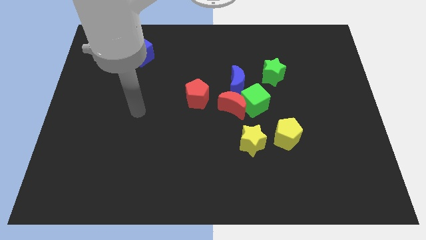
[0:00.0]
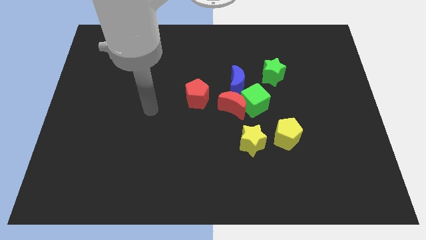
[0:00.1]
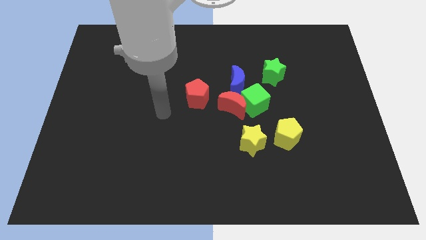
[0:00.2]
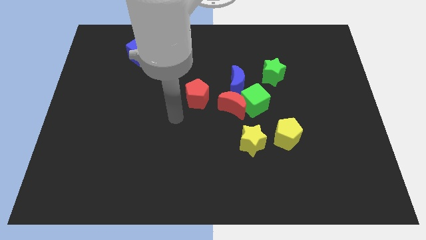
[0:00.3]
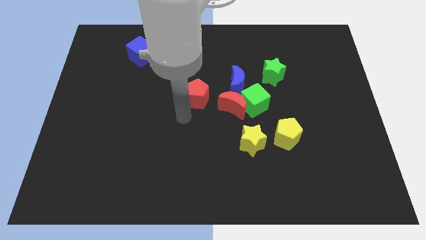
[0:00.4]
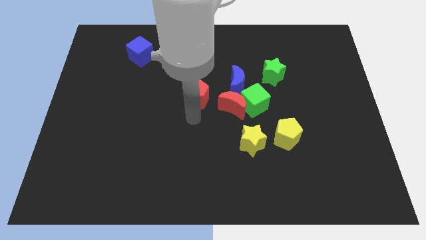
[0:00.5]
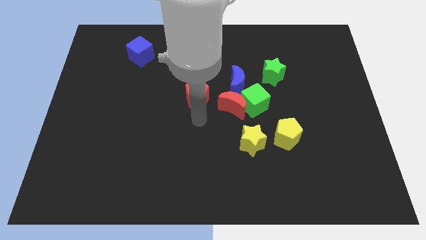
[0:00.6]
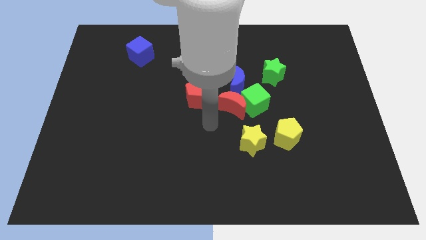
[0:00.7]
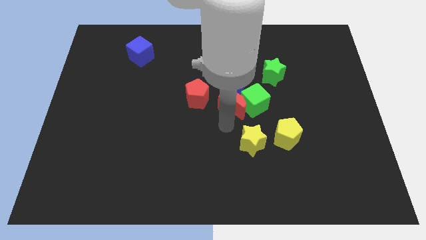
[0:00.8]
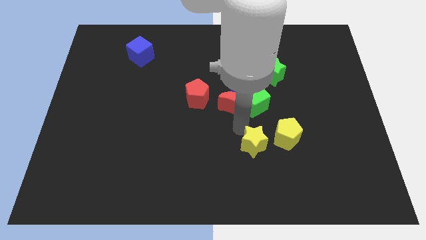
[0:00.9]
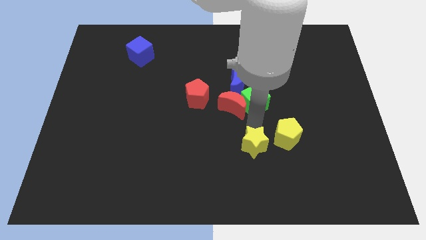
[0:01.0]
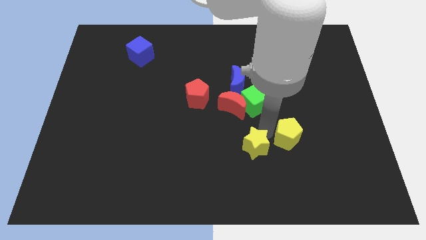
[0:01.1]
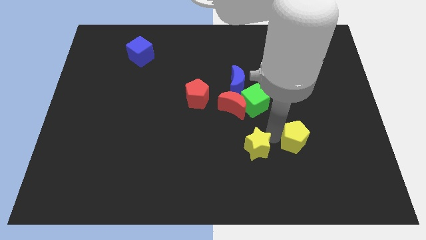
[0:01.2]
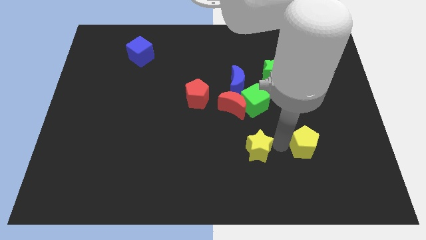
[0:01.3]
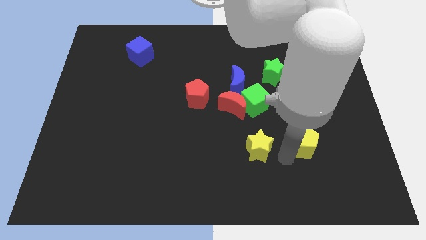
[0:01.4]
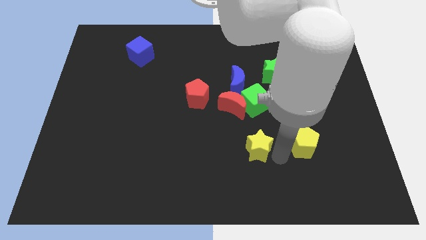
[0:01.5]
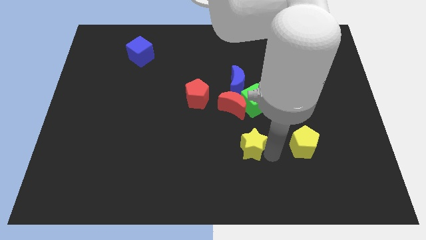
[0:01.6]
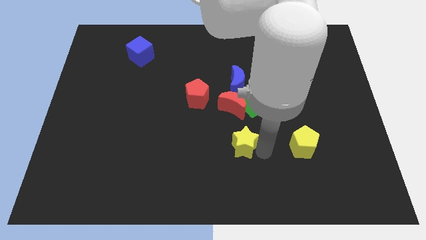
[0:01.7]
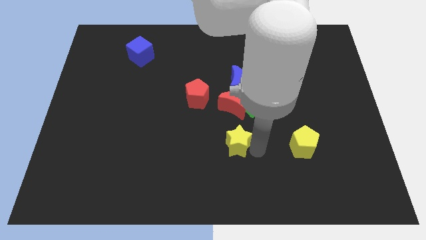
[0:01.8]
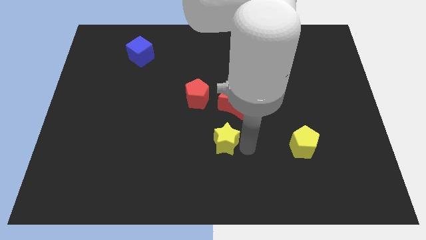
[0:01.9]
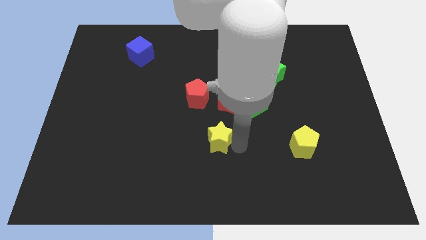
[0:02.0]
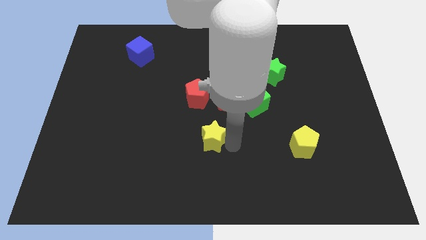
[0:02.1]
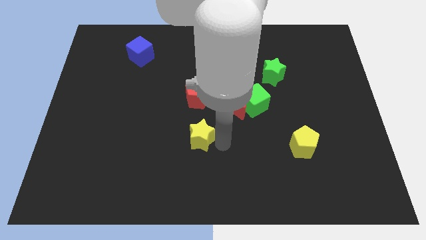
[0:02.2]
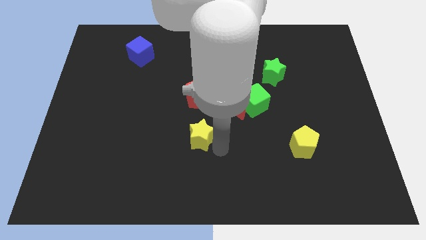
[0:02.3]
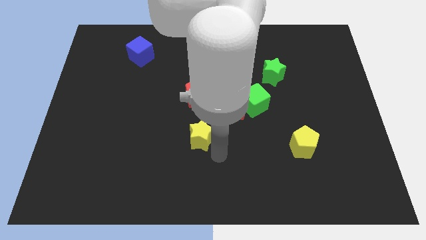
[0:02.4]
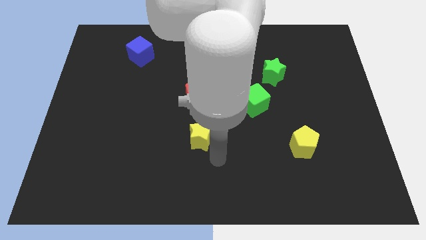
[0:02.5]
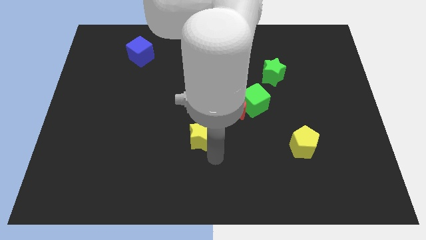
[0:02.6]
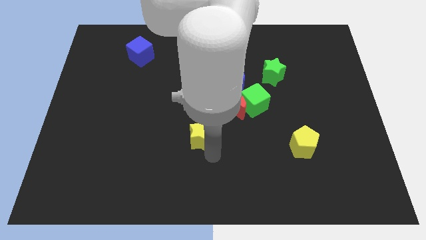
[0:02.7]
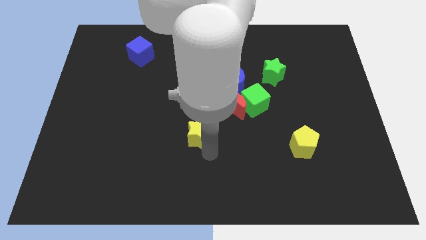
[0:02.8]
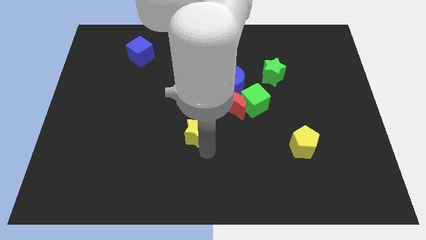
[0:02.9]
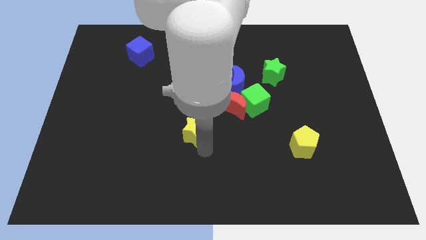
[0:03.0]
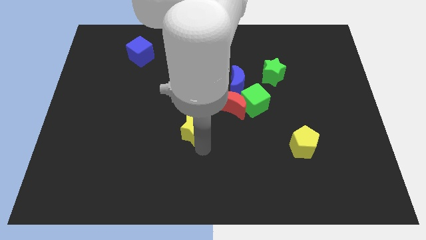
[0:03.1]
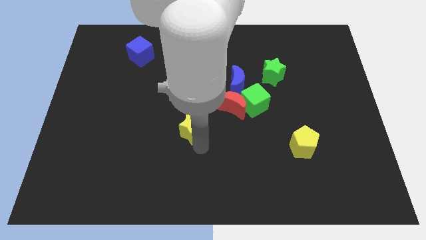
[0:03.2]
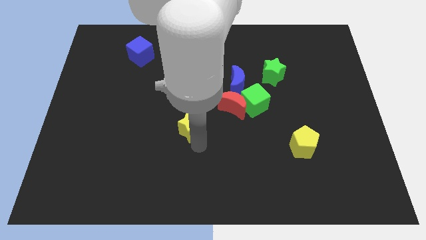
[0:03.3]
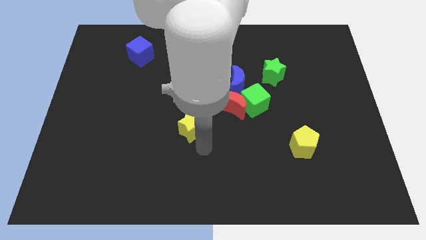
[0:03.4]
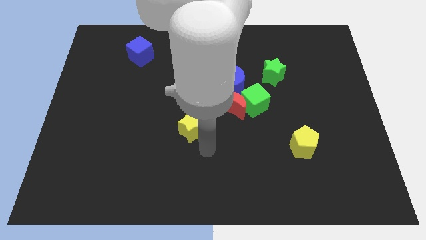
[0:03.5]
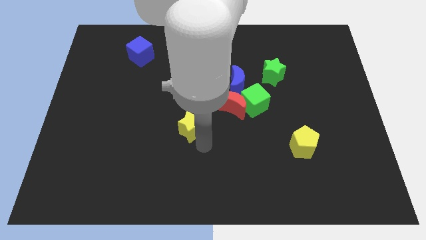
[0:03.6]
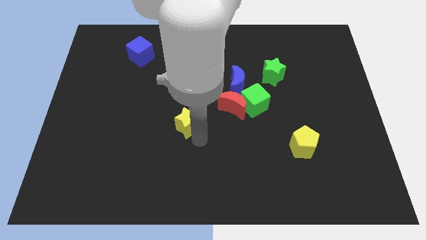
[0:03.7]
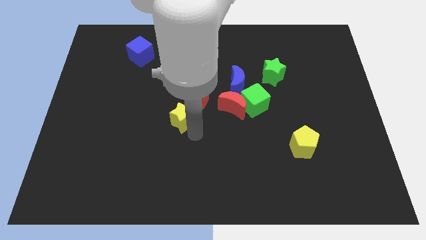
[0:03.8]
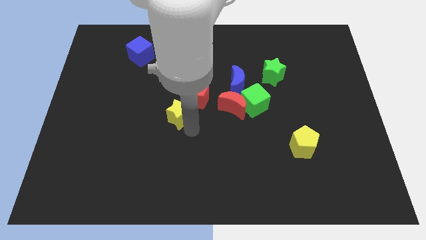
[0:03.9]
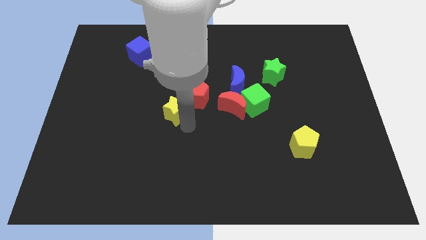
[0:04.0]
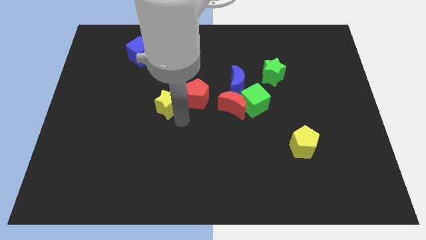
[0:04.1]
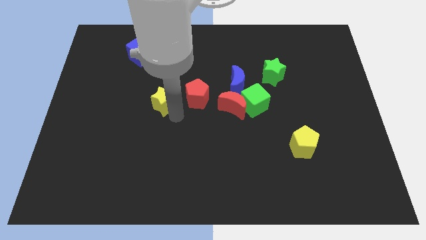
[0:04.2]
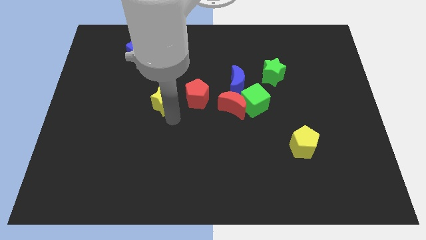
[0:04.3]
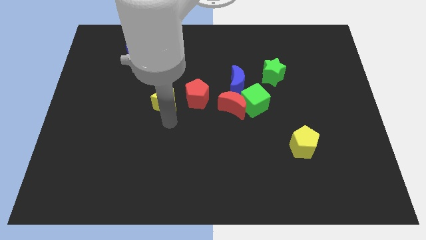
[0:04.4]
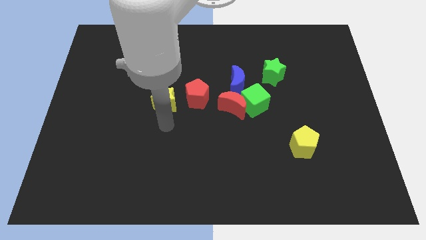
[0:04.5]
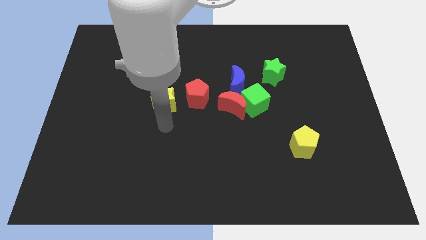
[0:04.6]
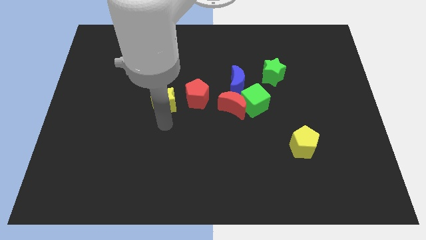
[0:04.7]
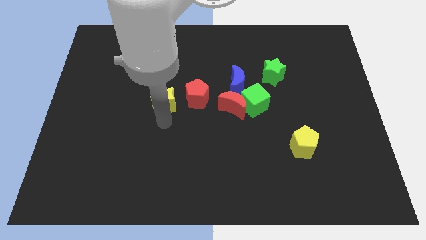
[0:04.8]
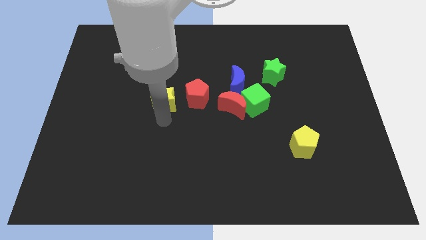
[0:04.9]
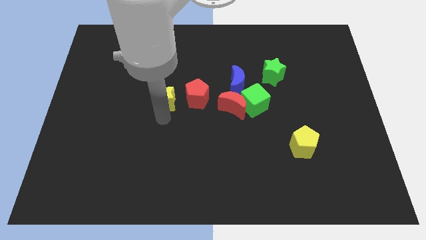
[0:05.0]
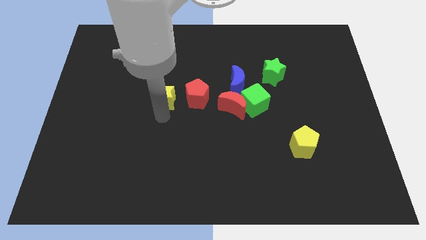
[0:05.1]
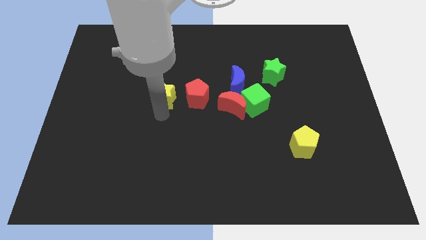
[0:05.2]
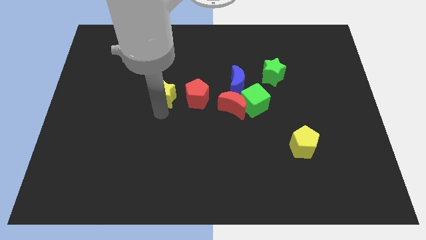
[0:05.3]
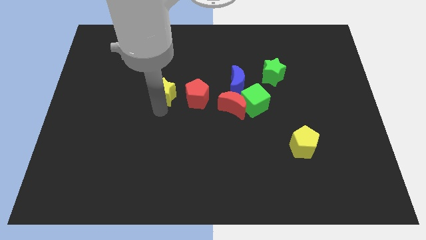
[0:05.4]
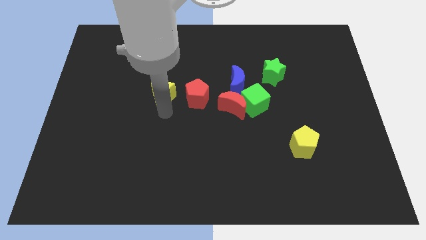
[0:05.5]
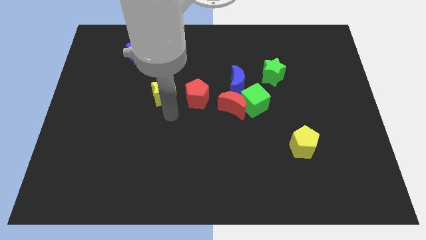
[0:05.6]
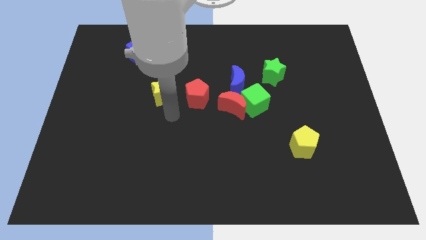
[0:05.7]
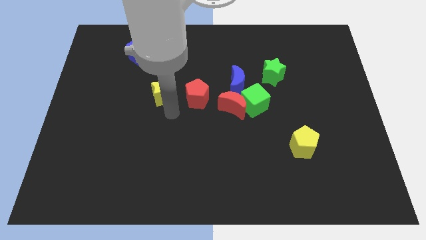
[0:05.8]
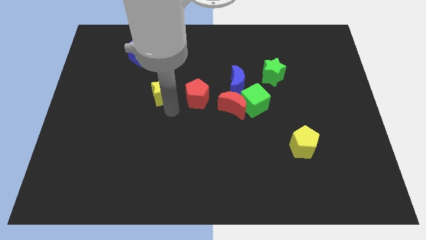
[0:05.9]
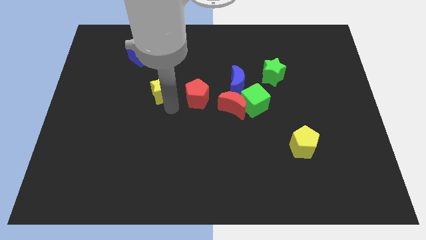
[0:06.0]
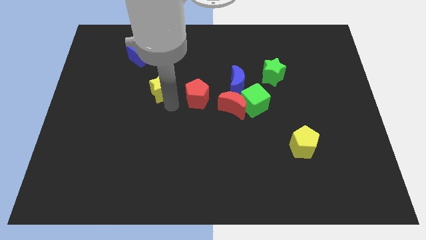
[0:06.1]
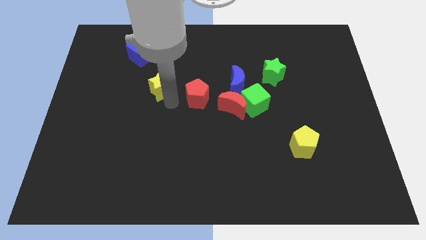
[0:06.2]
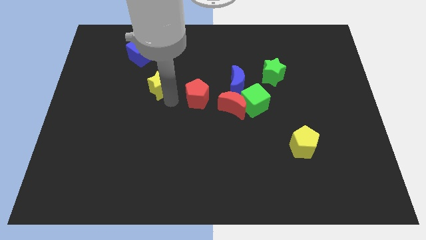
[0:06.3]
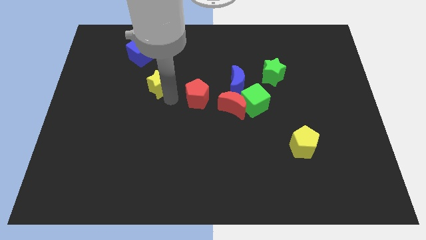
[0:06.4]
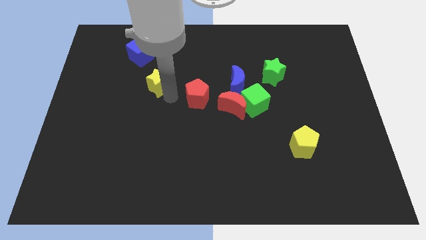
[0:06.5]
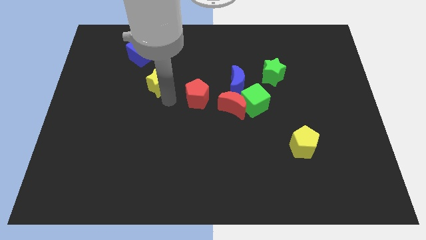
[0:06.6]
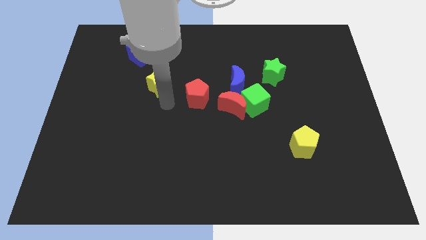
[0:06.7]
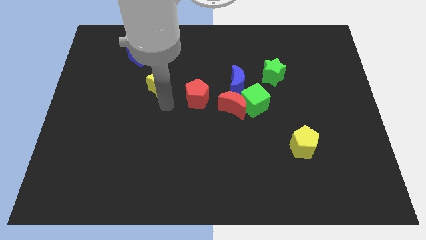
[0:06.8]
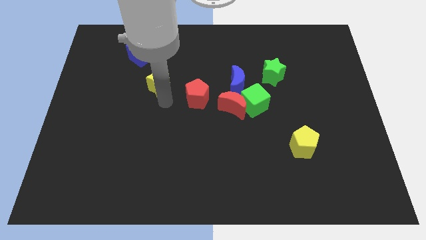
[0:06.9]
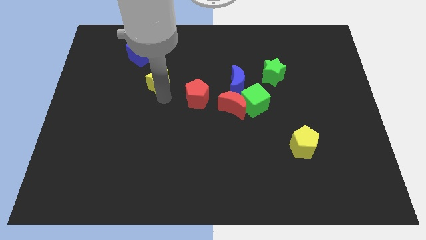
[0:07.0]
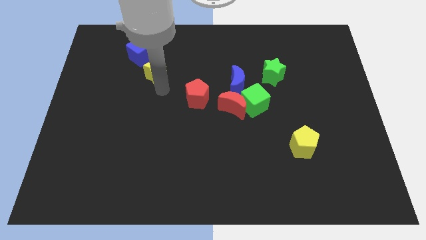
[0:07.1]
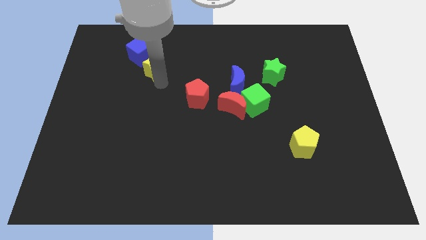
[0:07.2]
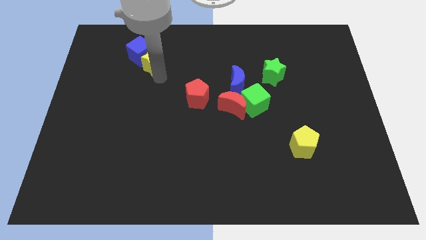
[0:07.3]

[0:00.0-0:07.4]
put the yellow star towards the blue cube
